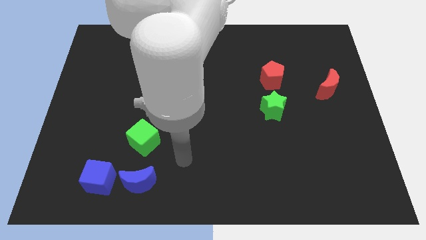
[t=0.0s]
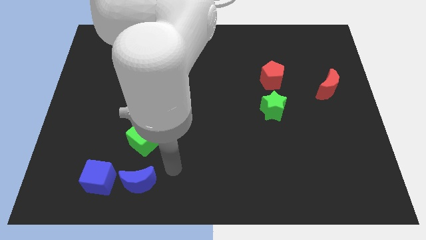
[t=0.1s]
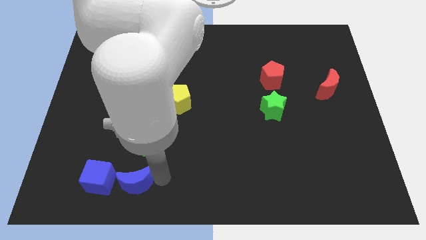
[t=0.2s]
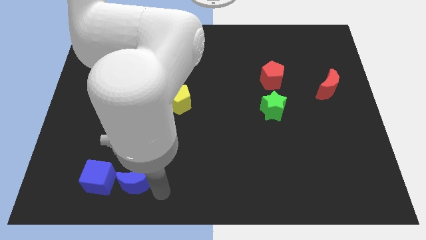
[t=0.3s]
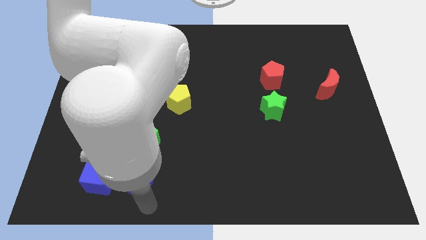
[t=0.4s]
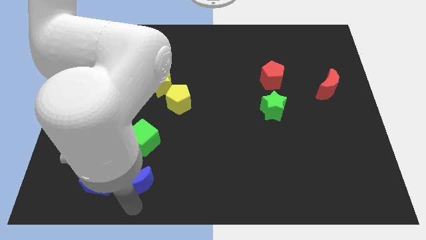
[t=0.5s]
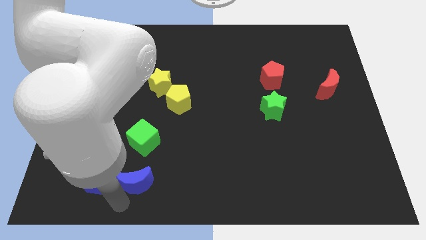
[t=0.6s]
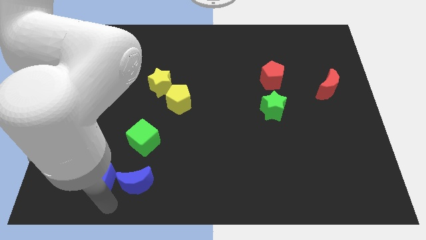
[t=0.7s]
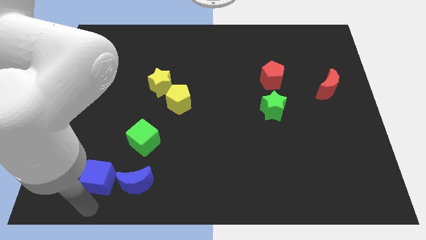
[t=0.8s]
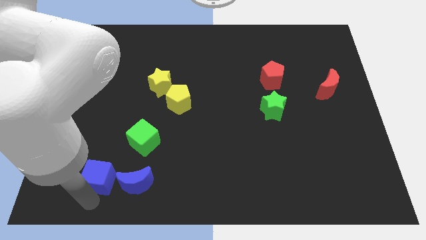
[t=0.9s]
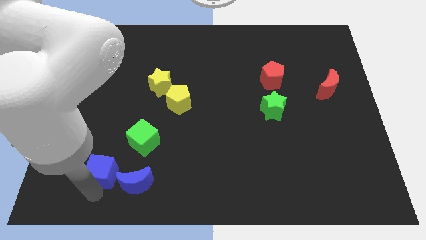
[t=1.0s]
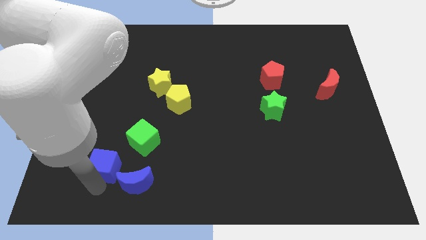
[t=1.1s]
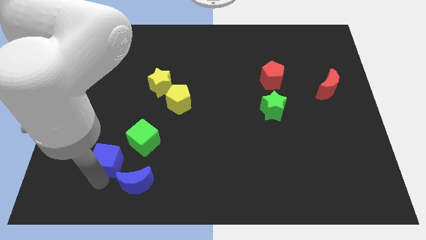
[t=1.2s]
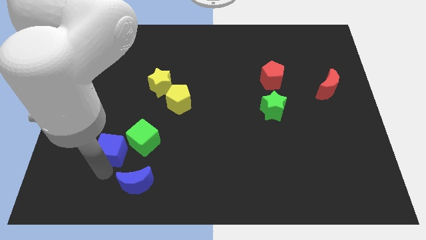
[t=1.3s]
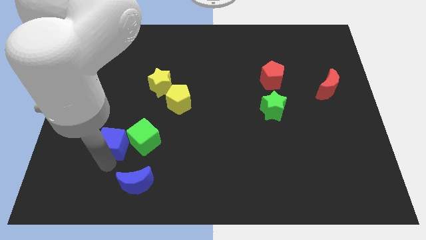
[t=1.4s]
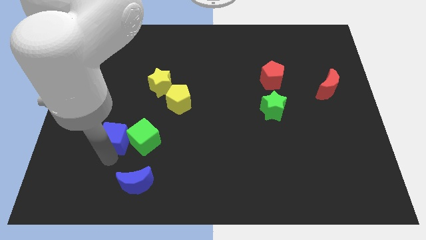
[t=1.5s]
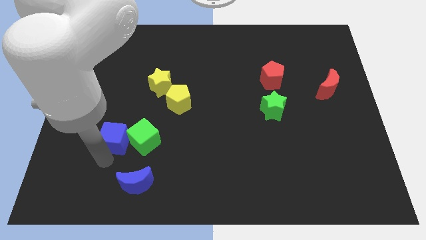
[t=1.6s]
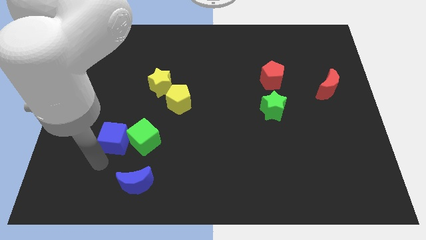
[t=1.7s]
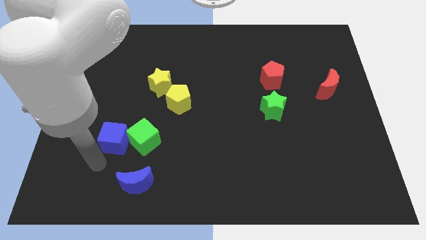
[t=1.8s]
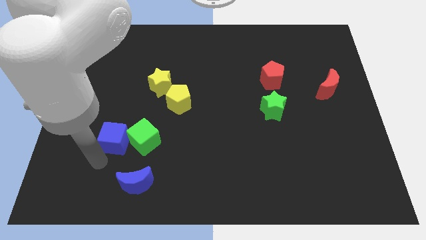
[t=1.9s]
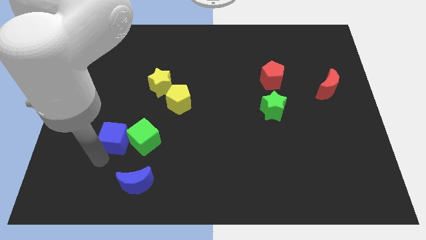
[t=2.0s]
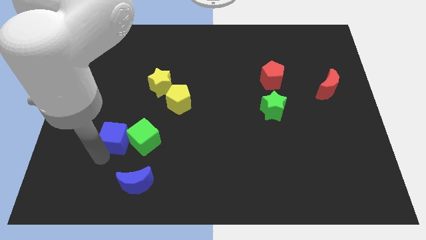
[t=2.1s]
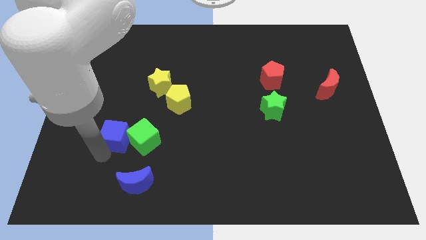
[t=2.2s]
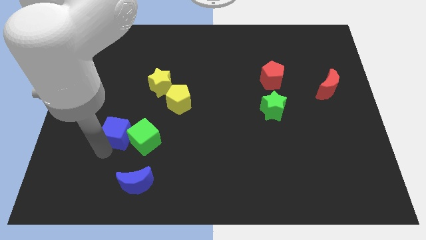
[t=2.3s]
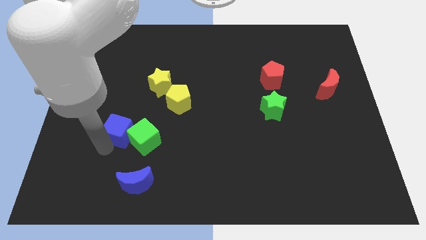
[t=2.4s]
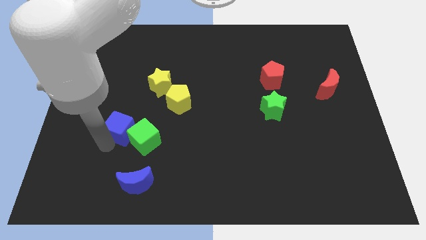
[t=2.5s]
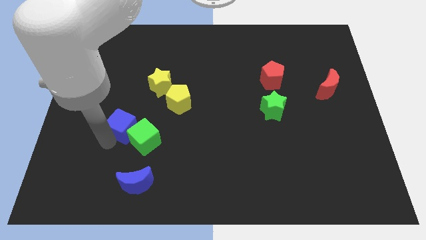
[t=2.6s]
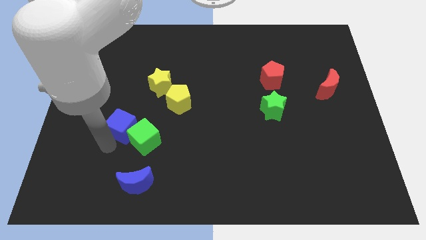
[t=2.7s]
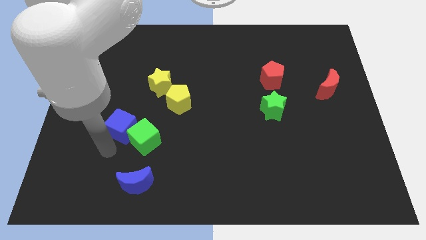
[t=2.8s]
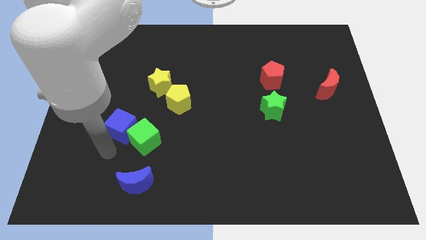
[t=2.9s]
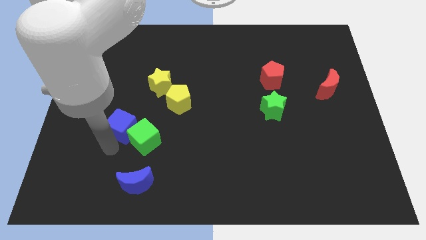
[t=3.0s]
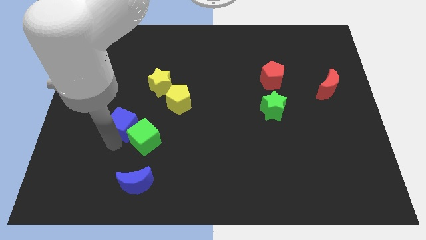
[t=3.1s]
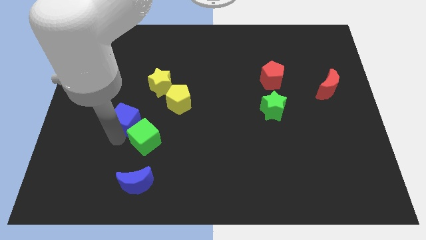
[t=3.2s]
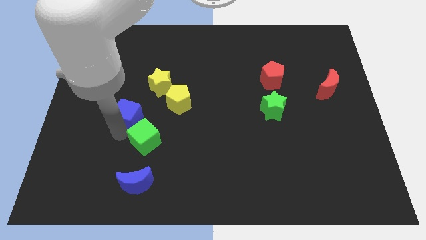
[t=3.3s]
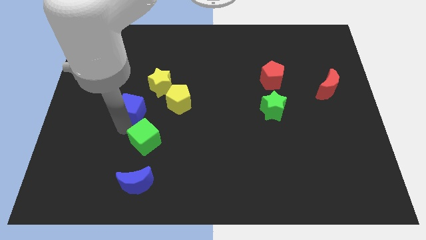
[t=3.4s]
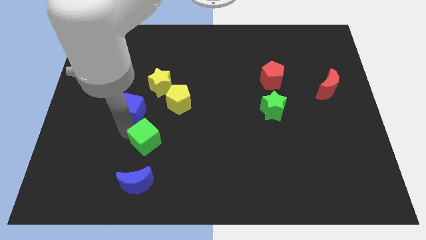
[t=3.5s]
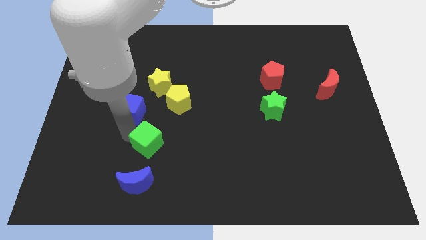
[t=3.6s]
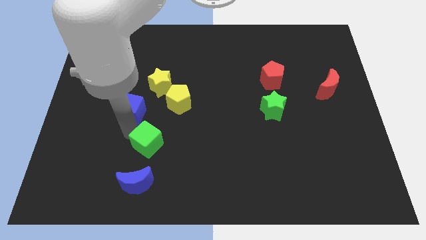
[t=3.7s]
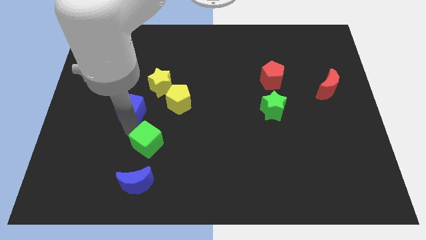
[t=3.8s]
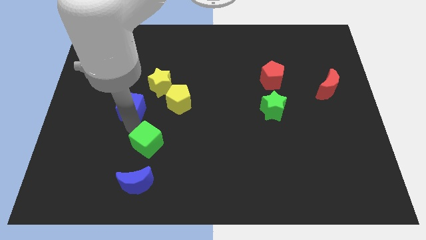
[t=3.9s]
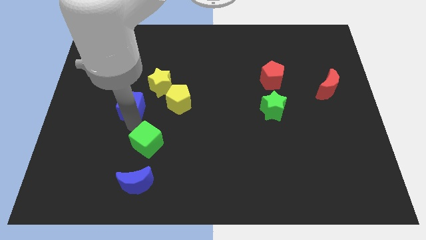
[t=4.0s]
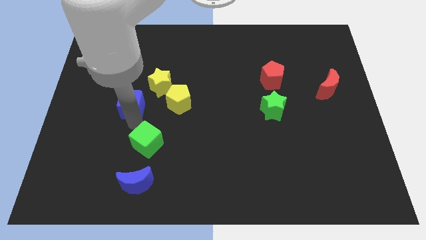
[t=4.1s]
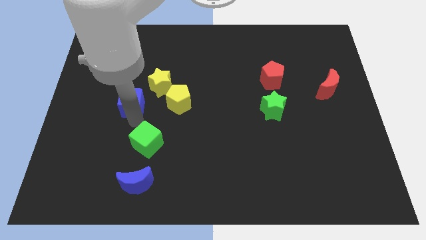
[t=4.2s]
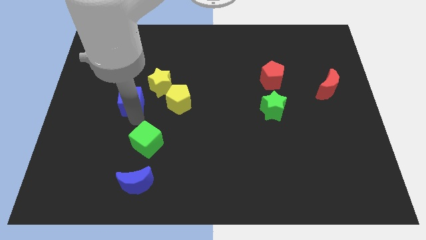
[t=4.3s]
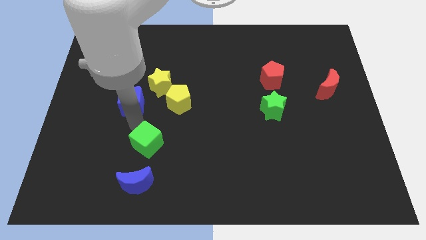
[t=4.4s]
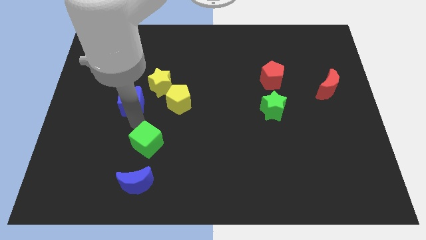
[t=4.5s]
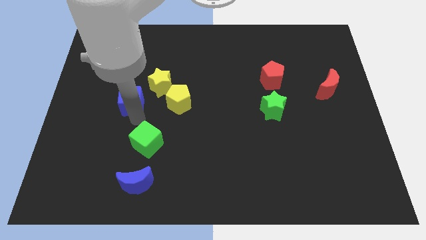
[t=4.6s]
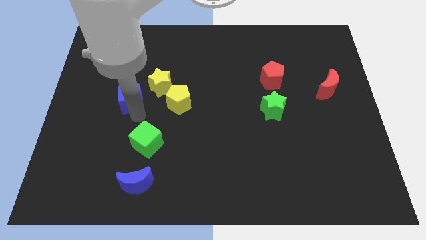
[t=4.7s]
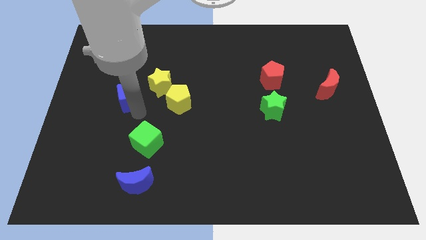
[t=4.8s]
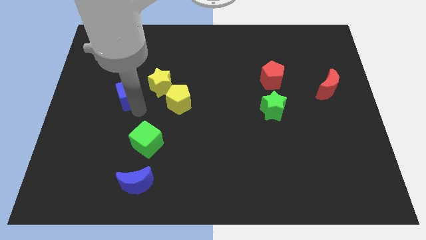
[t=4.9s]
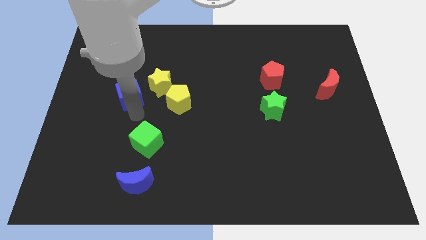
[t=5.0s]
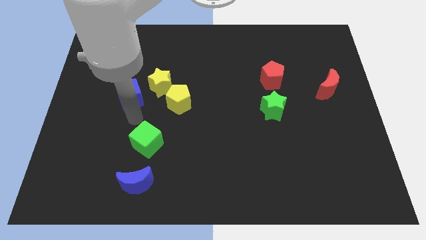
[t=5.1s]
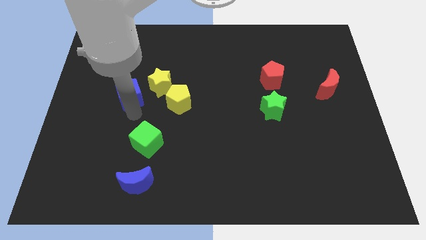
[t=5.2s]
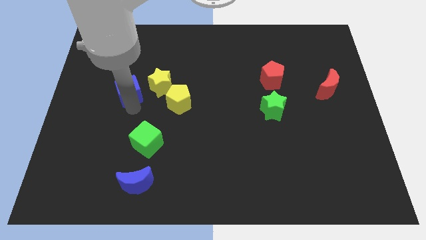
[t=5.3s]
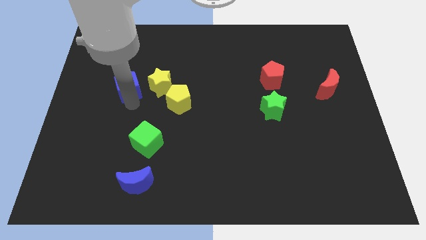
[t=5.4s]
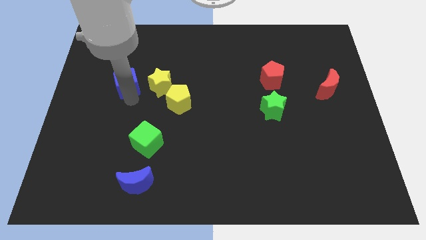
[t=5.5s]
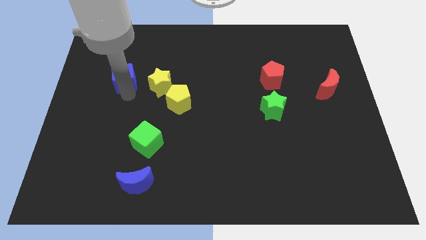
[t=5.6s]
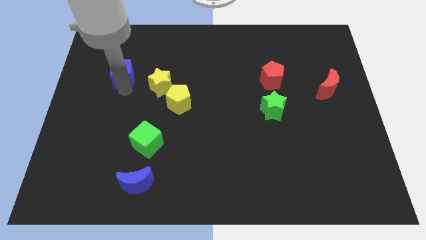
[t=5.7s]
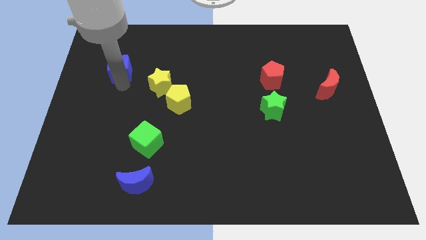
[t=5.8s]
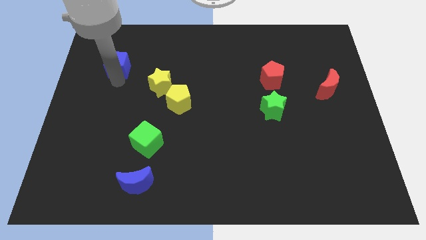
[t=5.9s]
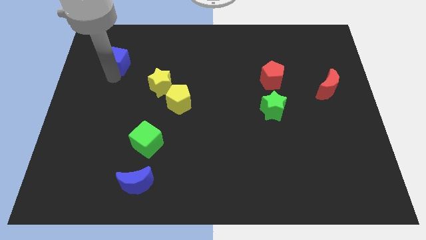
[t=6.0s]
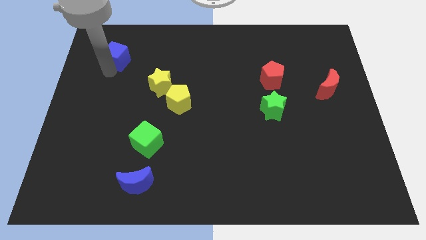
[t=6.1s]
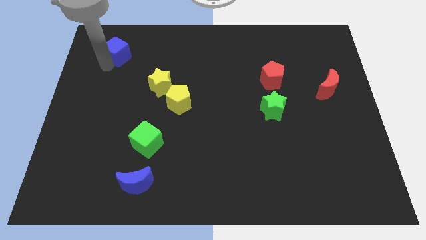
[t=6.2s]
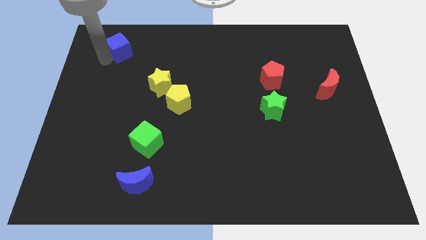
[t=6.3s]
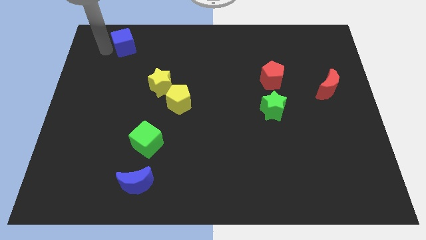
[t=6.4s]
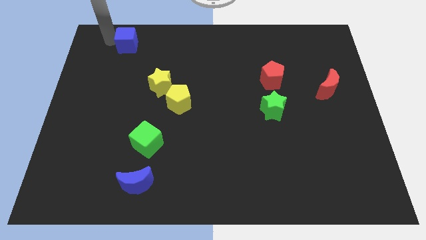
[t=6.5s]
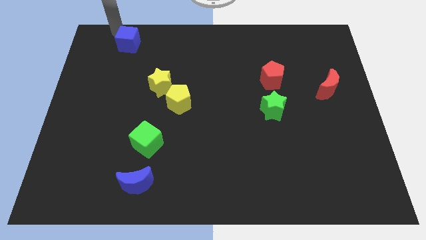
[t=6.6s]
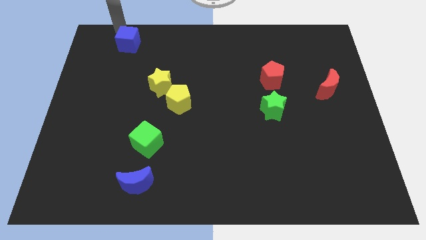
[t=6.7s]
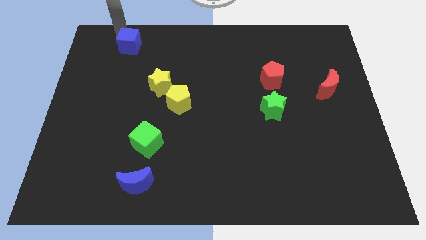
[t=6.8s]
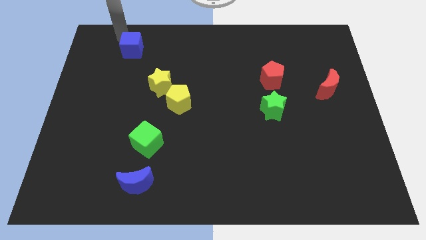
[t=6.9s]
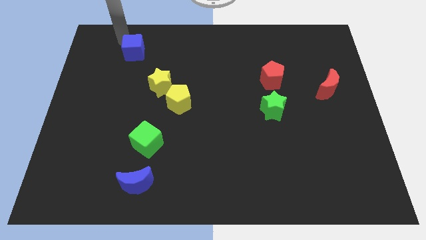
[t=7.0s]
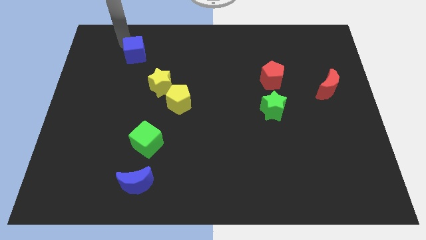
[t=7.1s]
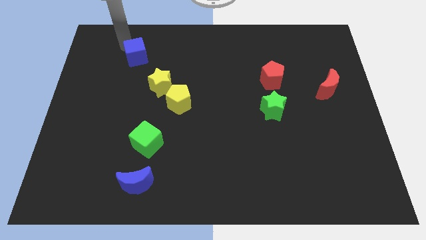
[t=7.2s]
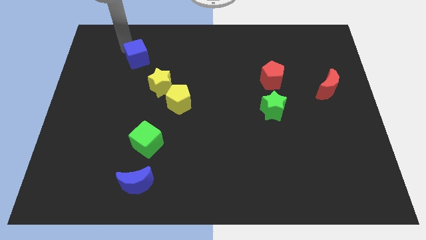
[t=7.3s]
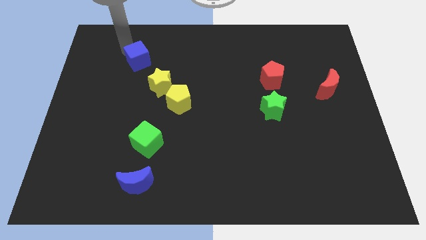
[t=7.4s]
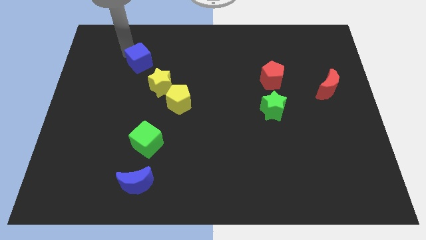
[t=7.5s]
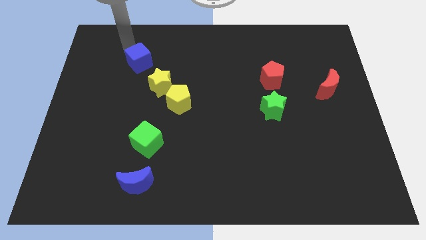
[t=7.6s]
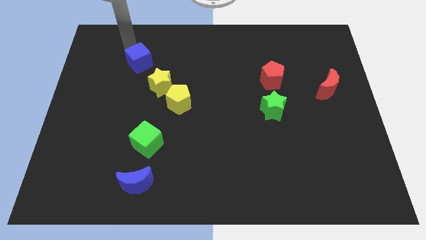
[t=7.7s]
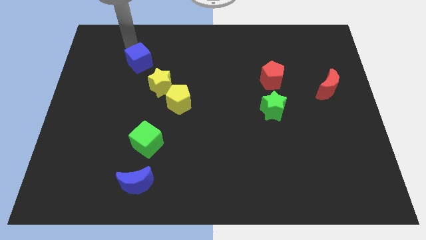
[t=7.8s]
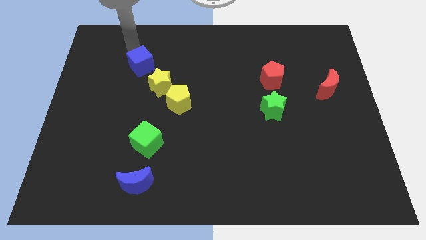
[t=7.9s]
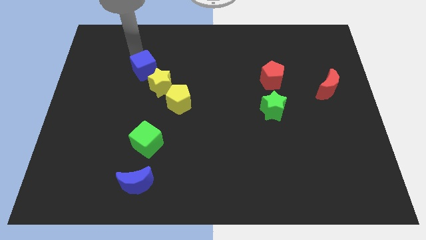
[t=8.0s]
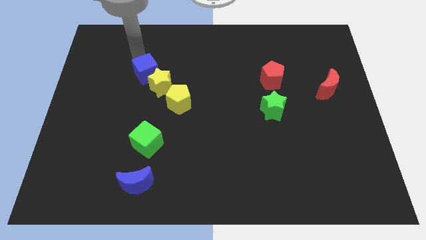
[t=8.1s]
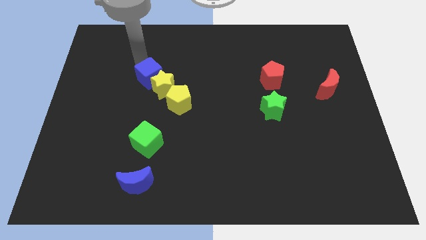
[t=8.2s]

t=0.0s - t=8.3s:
push the blue cube to the top left of the yellow pentagon
